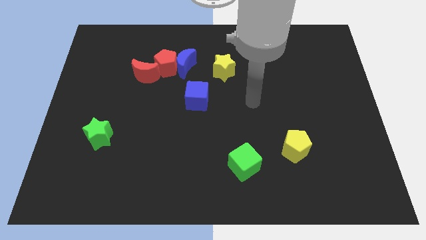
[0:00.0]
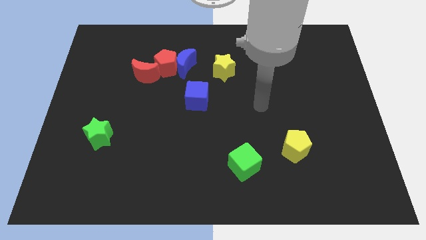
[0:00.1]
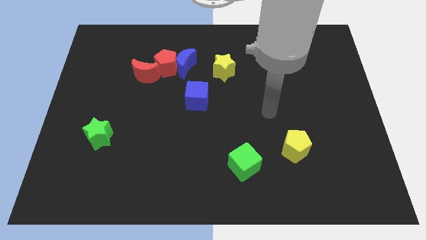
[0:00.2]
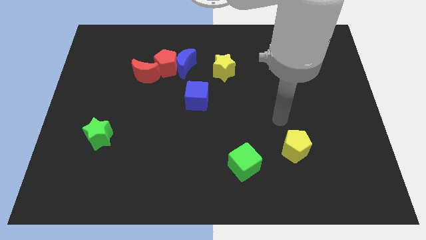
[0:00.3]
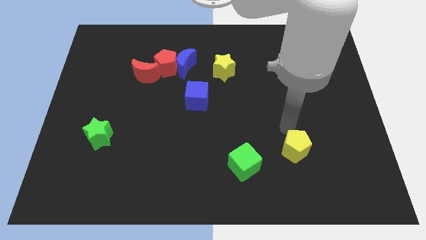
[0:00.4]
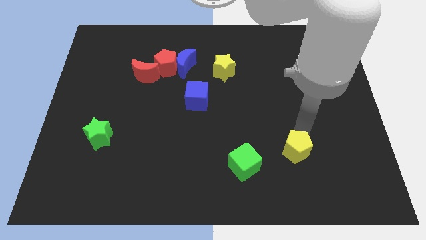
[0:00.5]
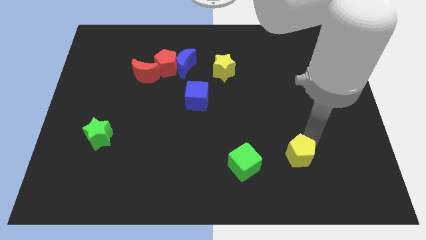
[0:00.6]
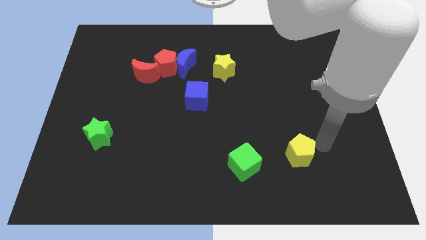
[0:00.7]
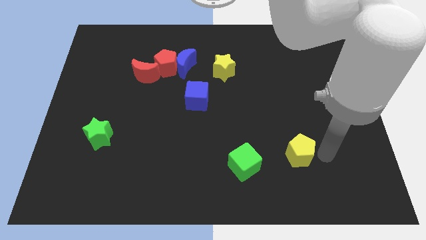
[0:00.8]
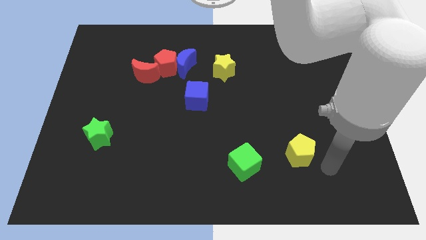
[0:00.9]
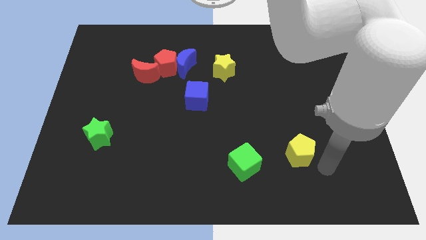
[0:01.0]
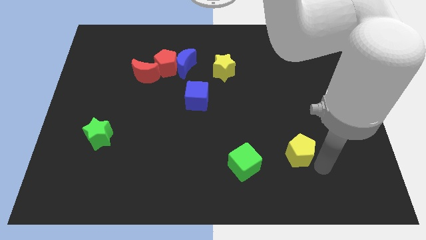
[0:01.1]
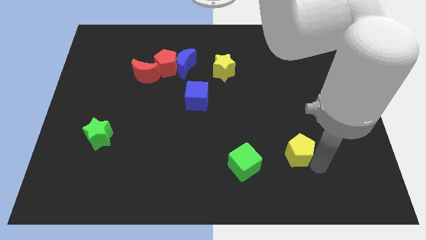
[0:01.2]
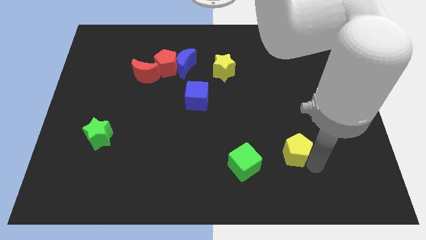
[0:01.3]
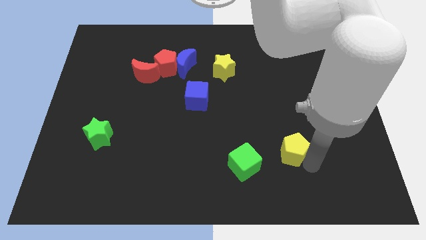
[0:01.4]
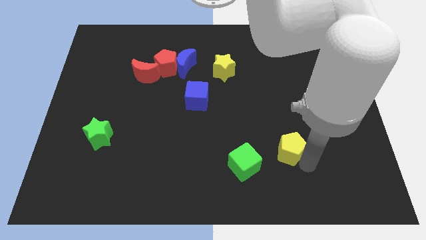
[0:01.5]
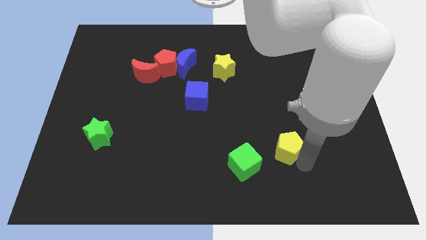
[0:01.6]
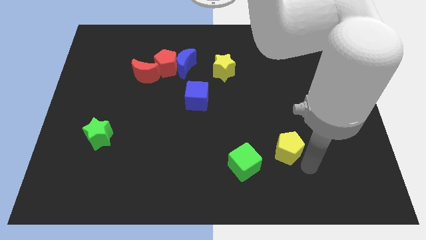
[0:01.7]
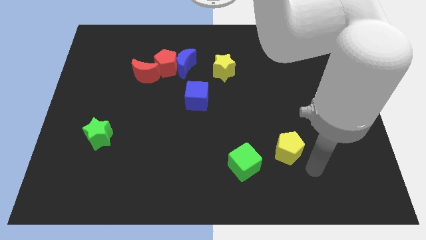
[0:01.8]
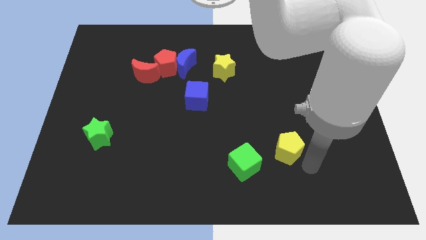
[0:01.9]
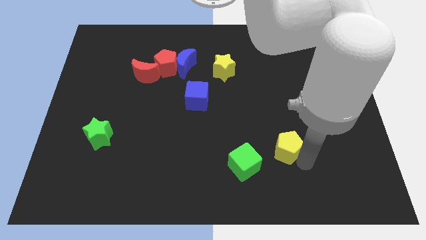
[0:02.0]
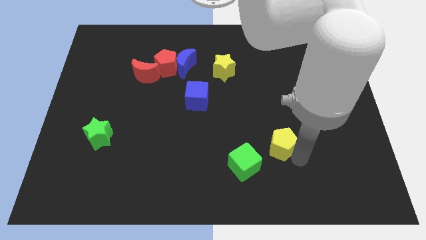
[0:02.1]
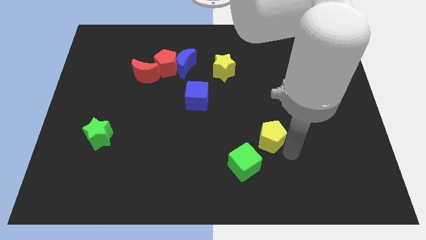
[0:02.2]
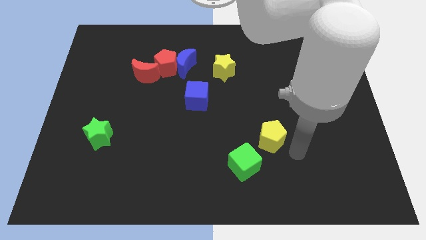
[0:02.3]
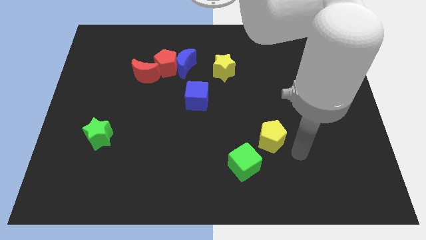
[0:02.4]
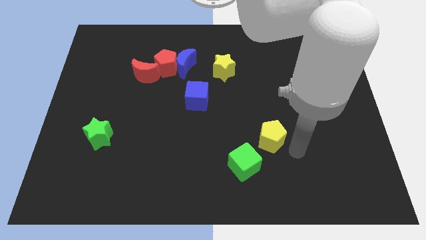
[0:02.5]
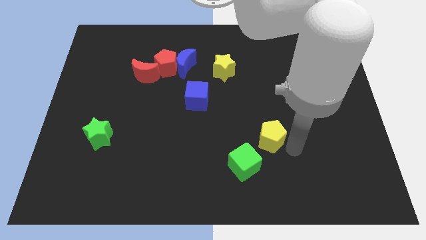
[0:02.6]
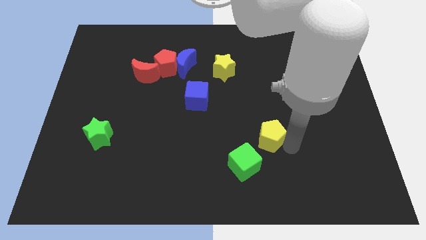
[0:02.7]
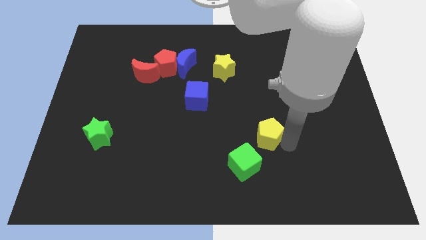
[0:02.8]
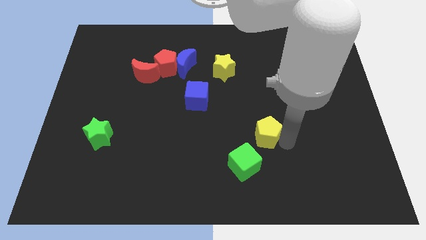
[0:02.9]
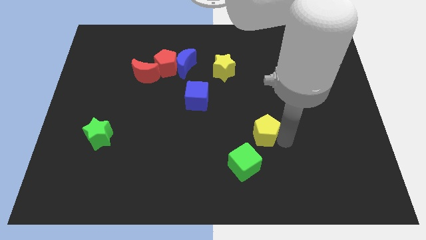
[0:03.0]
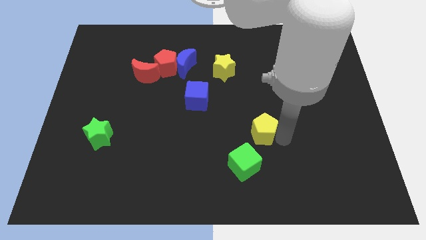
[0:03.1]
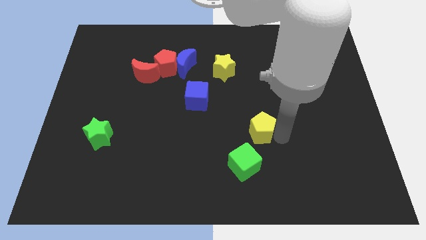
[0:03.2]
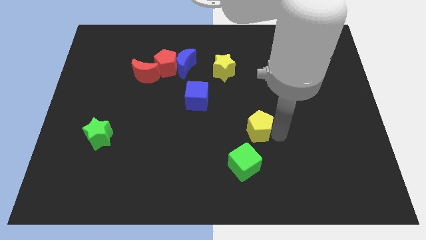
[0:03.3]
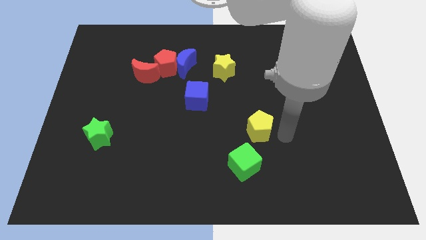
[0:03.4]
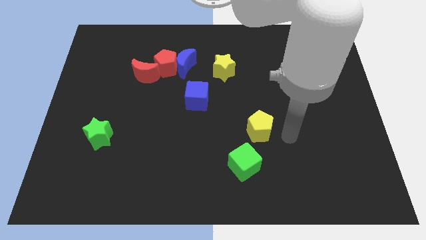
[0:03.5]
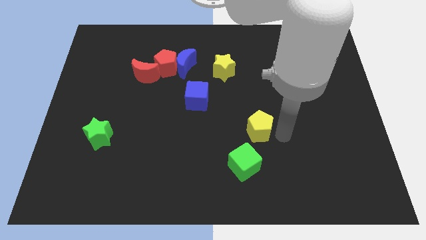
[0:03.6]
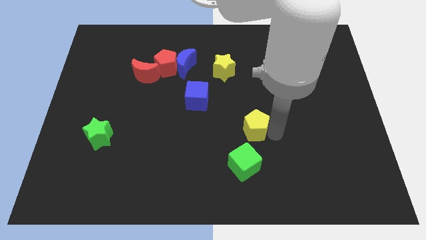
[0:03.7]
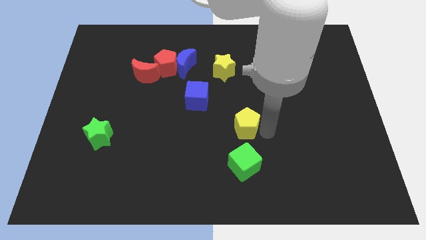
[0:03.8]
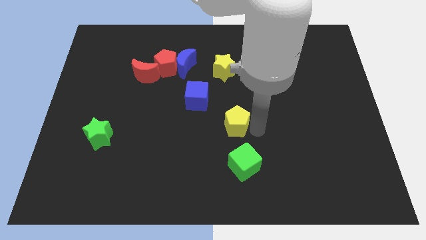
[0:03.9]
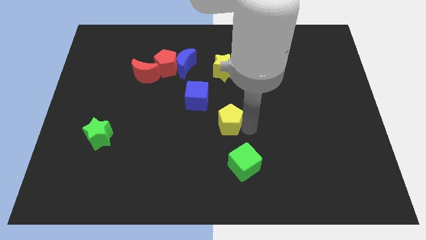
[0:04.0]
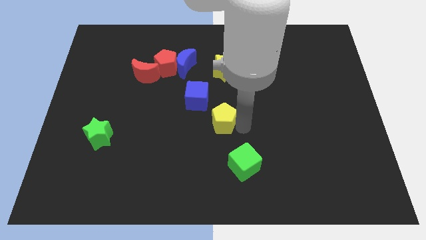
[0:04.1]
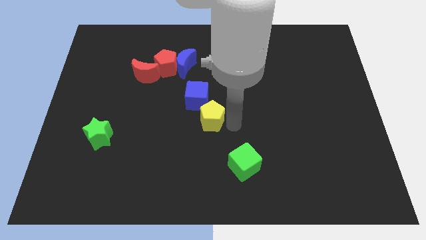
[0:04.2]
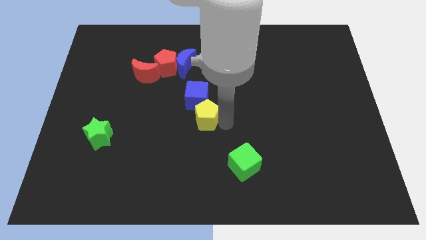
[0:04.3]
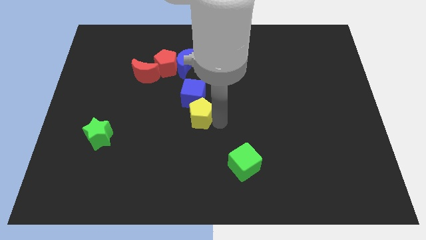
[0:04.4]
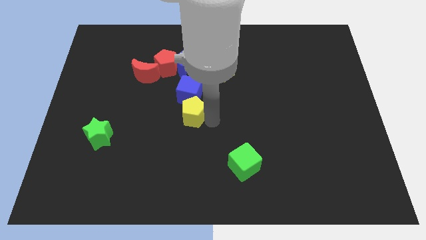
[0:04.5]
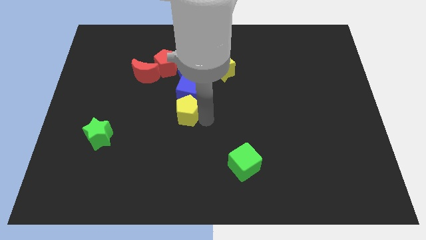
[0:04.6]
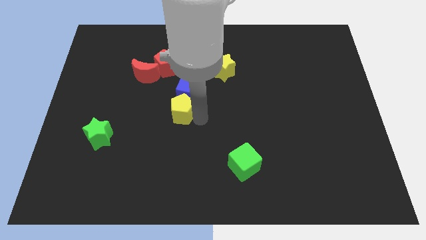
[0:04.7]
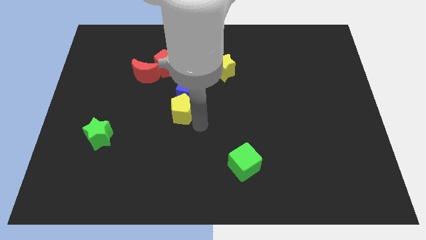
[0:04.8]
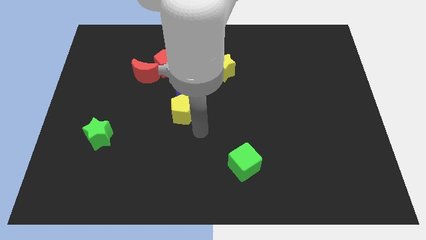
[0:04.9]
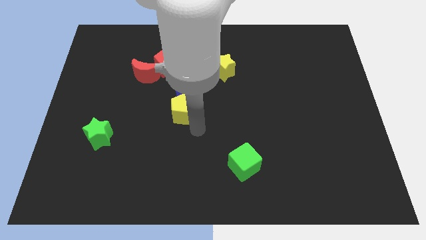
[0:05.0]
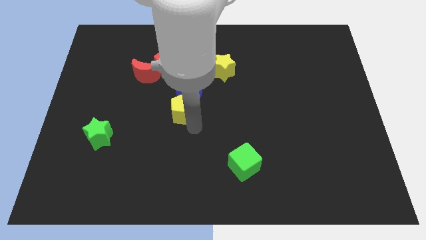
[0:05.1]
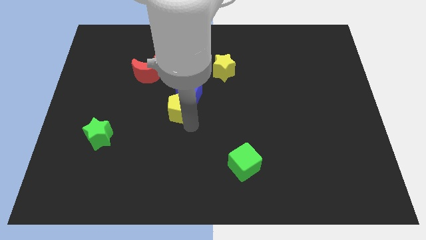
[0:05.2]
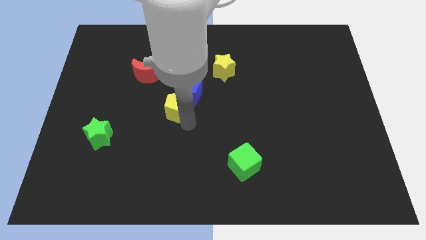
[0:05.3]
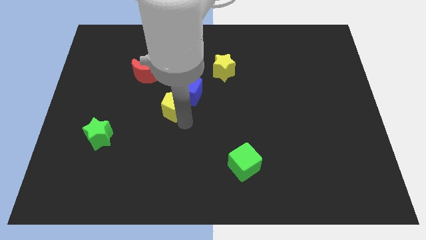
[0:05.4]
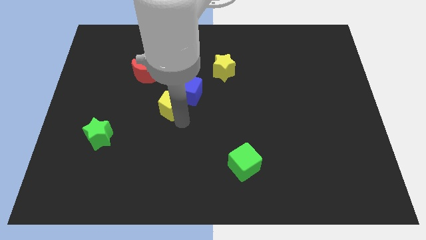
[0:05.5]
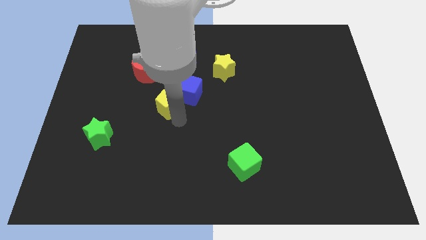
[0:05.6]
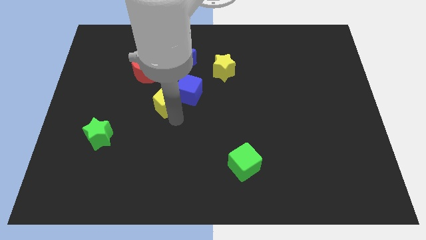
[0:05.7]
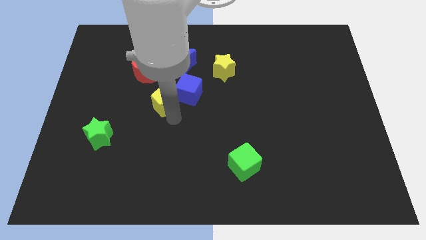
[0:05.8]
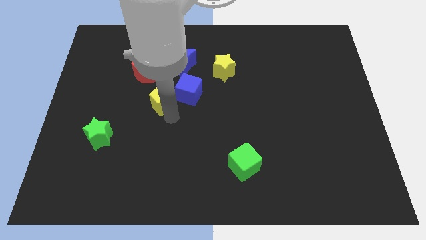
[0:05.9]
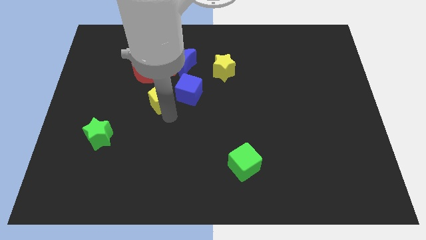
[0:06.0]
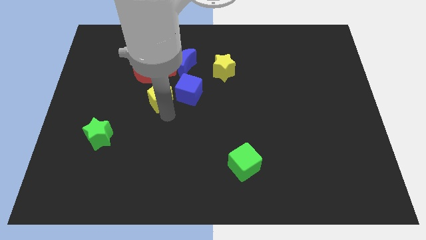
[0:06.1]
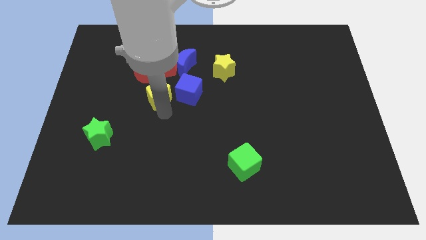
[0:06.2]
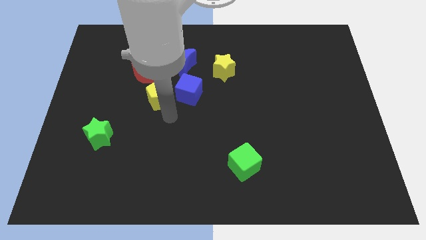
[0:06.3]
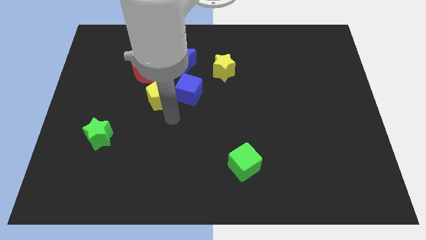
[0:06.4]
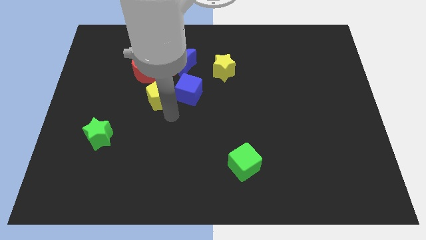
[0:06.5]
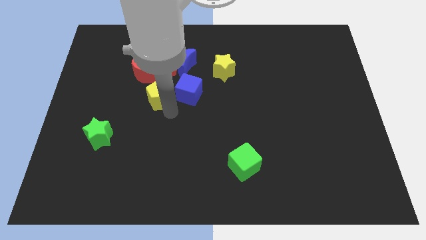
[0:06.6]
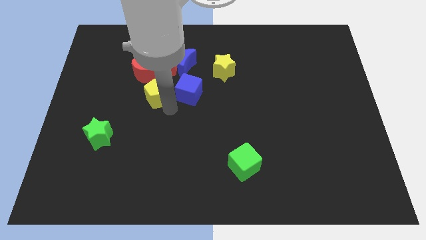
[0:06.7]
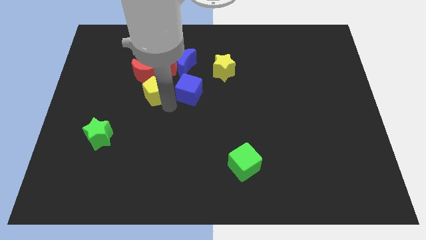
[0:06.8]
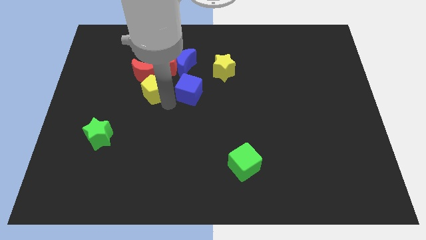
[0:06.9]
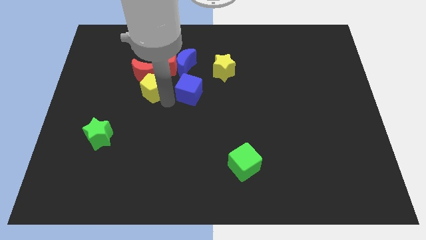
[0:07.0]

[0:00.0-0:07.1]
put the yellow pentagon towards the red moon
